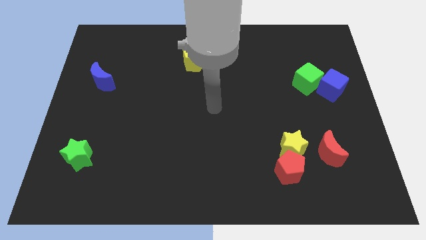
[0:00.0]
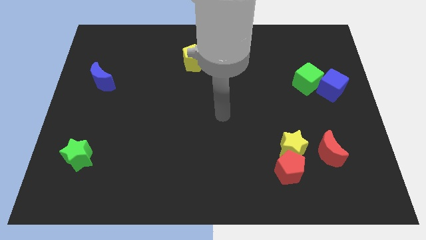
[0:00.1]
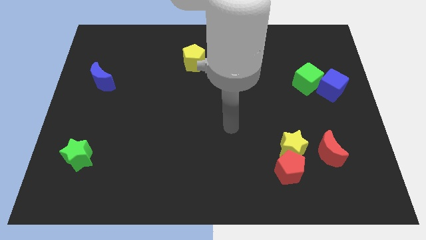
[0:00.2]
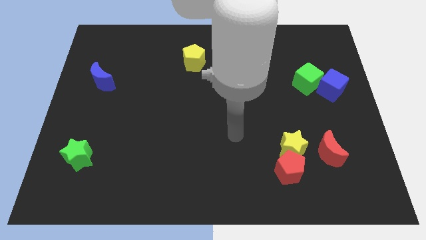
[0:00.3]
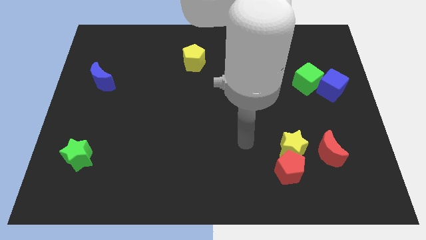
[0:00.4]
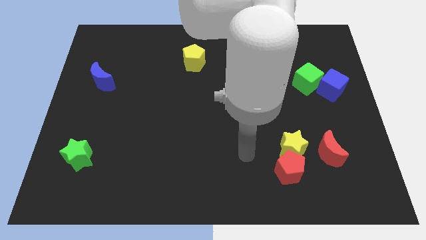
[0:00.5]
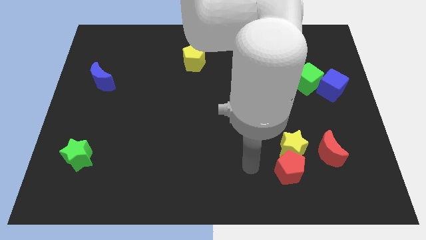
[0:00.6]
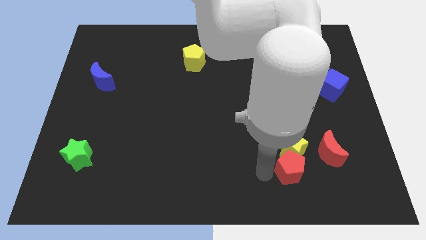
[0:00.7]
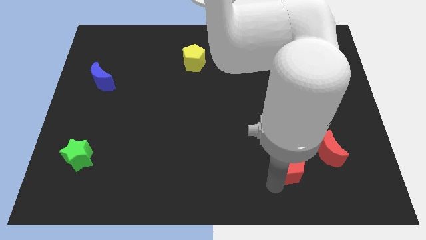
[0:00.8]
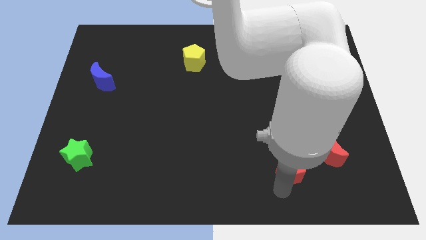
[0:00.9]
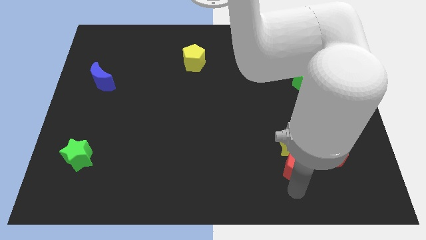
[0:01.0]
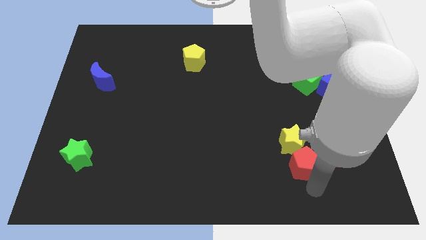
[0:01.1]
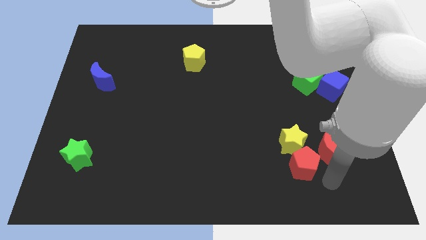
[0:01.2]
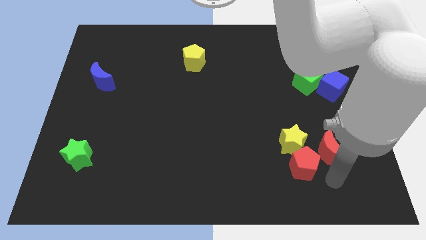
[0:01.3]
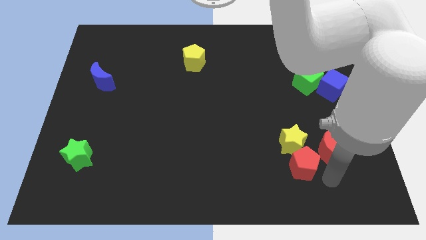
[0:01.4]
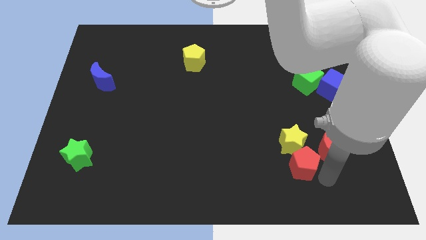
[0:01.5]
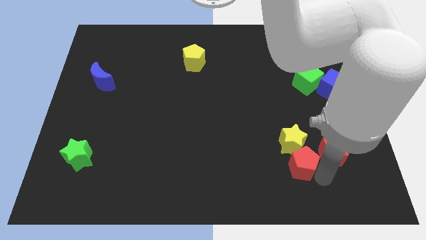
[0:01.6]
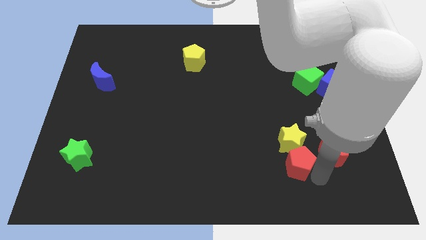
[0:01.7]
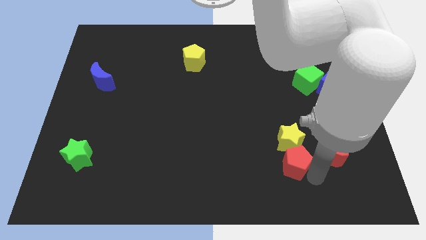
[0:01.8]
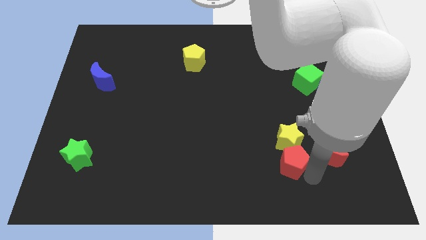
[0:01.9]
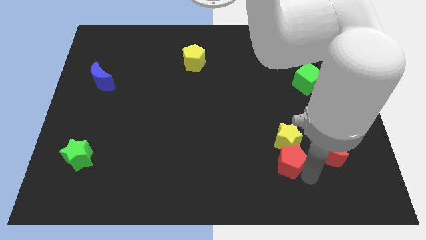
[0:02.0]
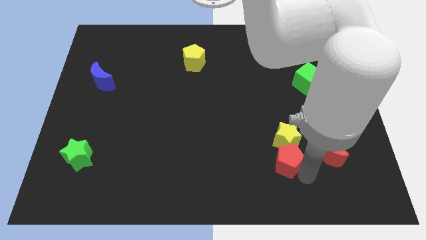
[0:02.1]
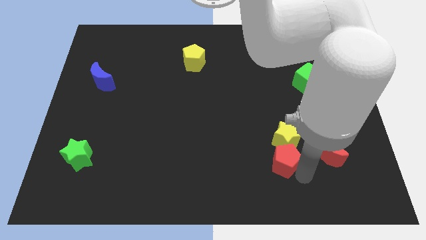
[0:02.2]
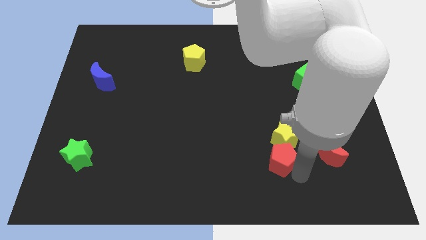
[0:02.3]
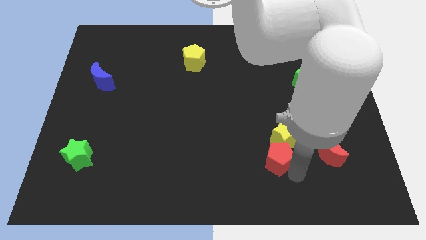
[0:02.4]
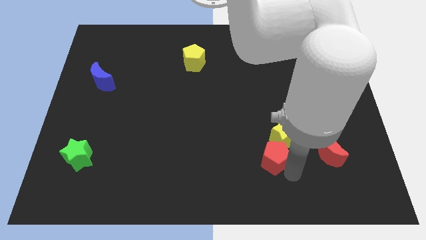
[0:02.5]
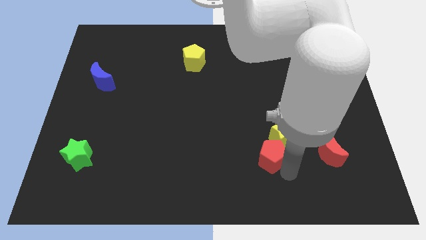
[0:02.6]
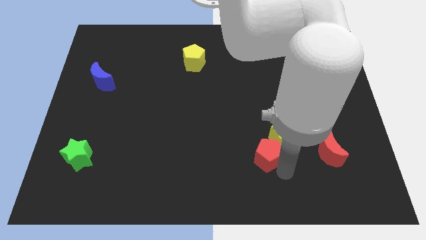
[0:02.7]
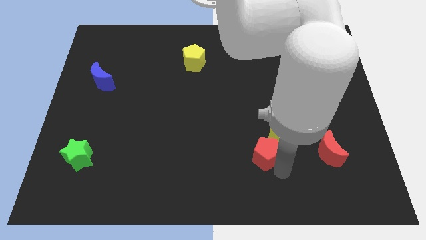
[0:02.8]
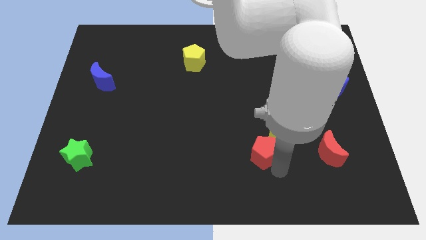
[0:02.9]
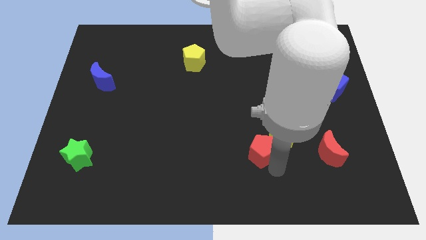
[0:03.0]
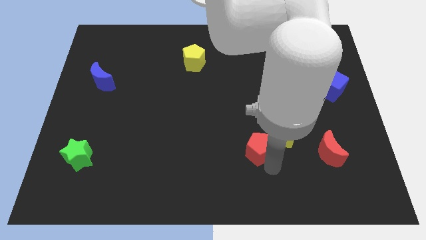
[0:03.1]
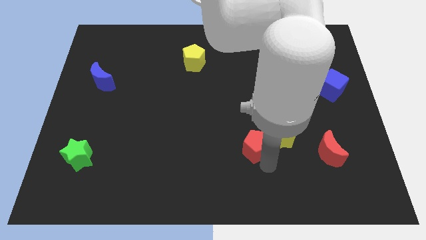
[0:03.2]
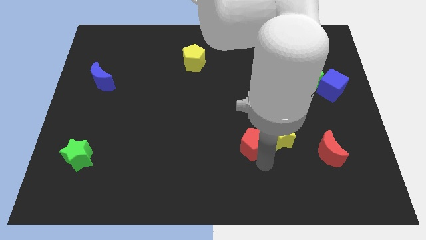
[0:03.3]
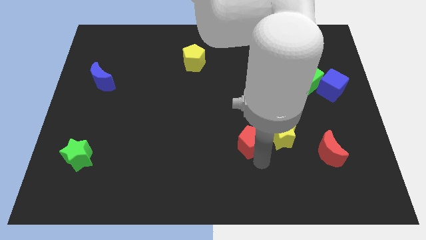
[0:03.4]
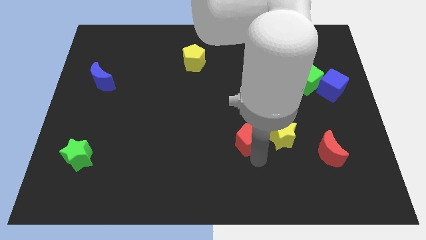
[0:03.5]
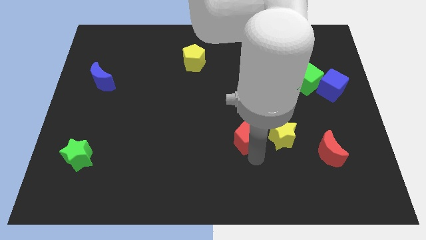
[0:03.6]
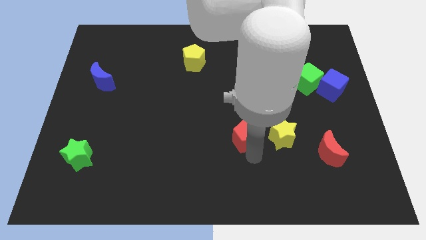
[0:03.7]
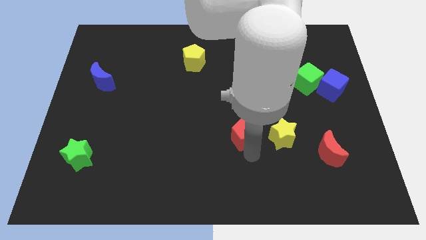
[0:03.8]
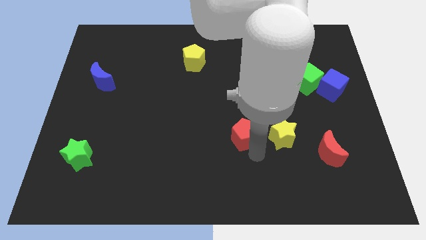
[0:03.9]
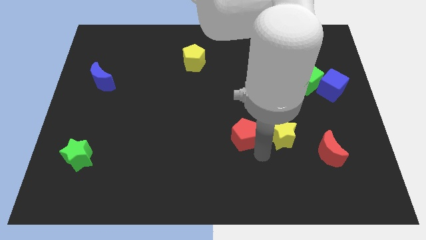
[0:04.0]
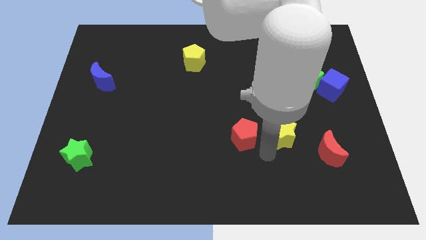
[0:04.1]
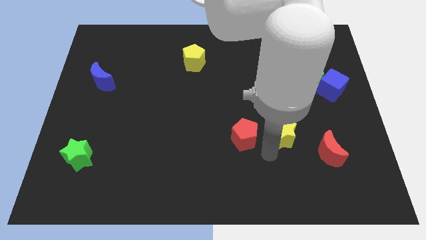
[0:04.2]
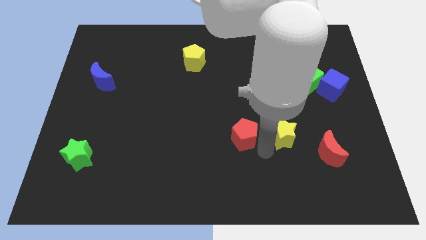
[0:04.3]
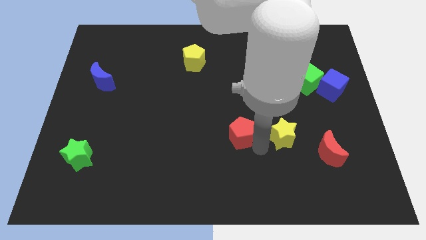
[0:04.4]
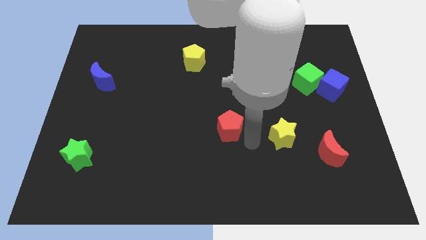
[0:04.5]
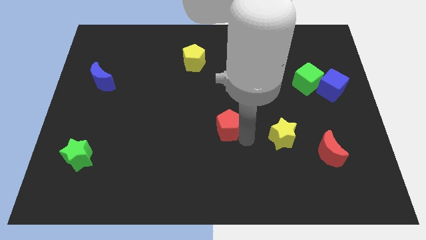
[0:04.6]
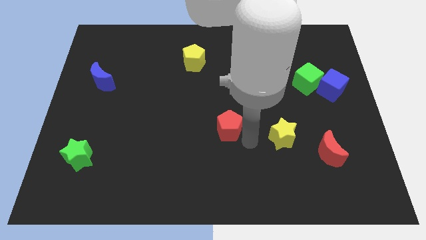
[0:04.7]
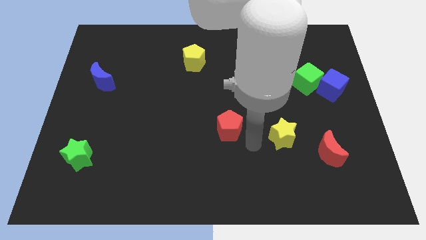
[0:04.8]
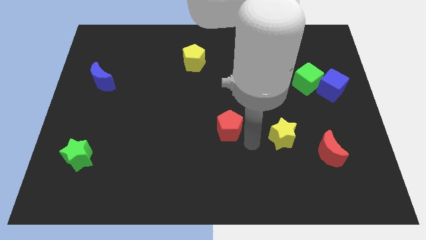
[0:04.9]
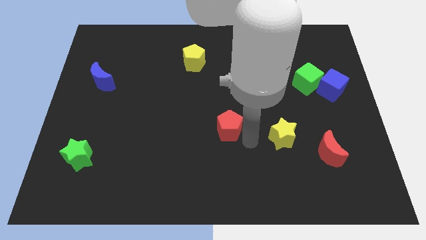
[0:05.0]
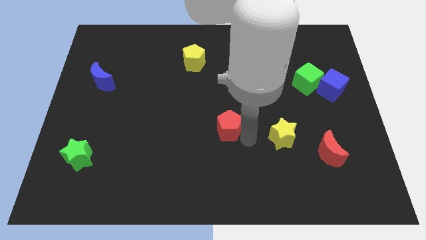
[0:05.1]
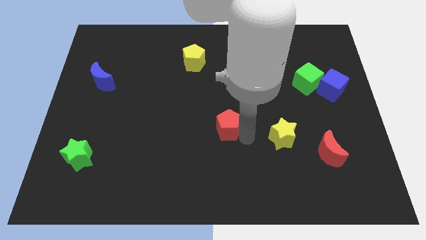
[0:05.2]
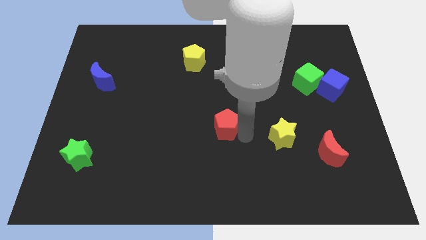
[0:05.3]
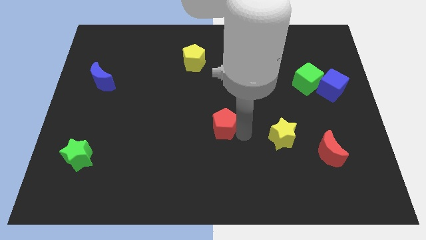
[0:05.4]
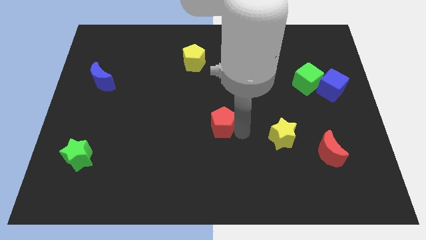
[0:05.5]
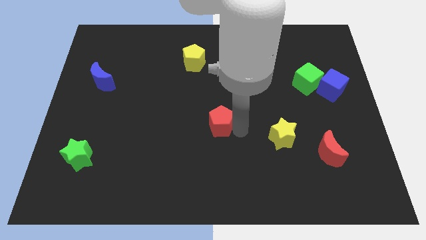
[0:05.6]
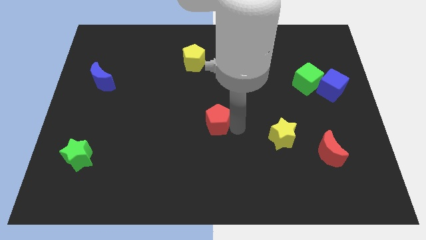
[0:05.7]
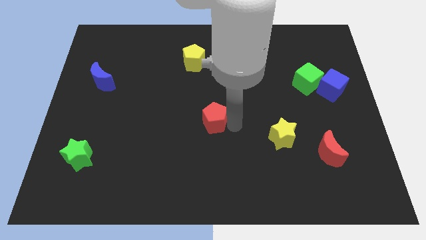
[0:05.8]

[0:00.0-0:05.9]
push the red pentagon diagonally up and left

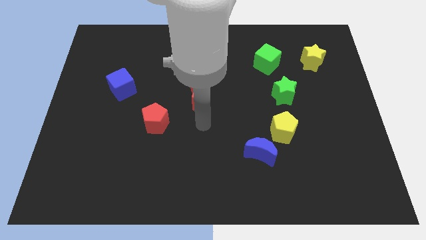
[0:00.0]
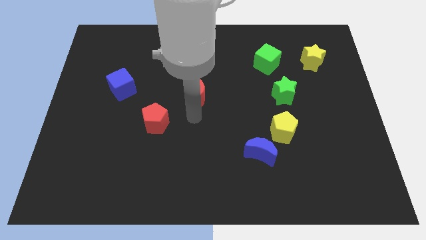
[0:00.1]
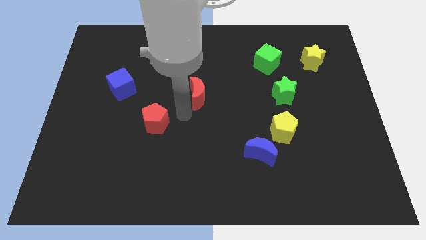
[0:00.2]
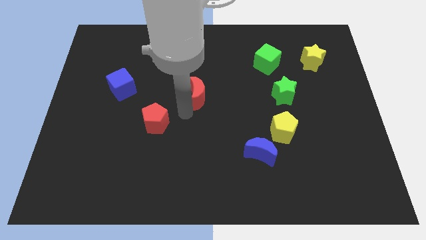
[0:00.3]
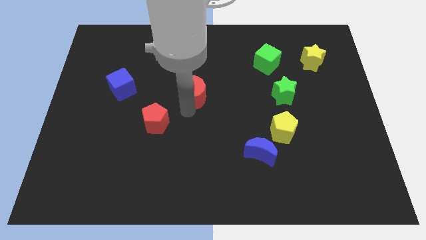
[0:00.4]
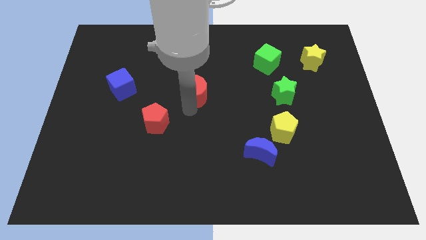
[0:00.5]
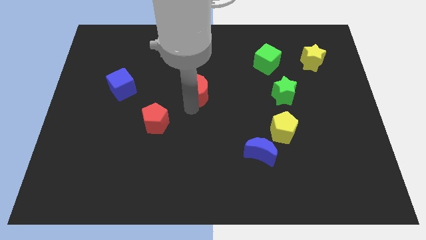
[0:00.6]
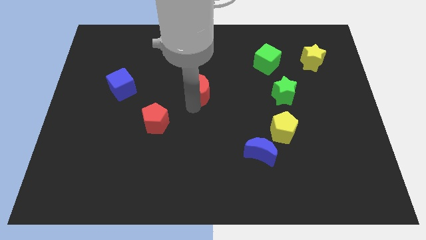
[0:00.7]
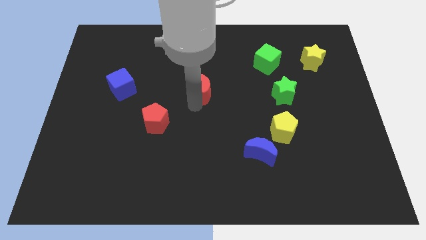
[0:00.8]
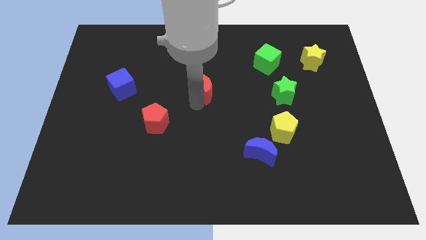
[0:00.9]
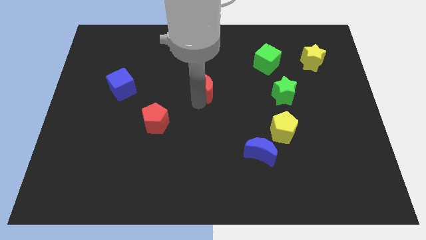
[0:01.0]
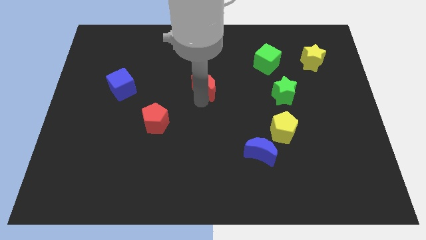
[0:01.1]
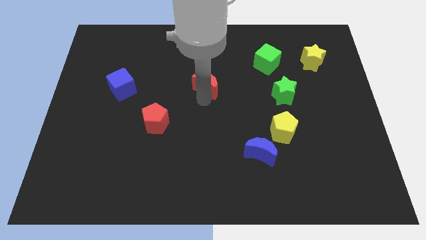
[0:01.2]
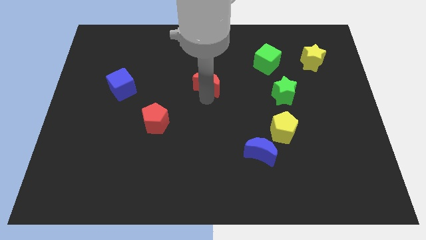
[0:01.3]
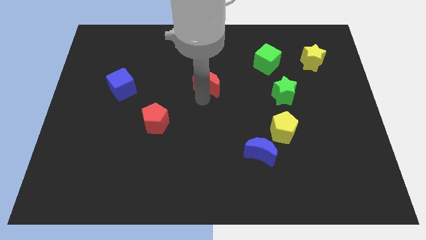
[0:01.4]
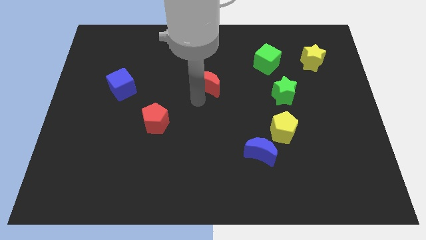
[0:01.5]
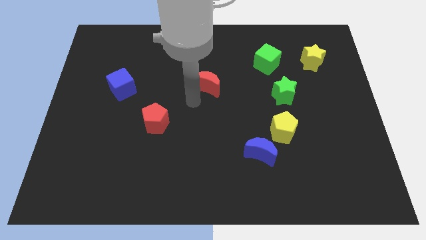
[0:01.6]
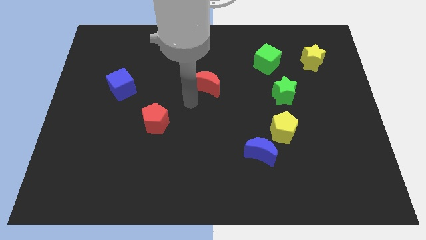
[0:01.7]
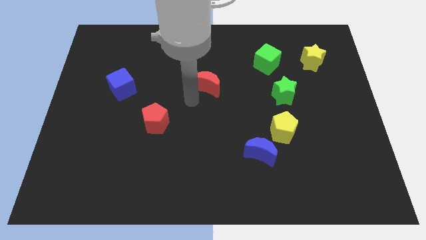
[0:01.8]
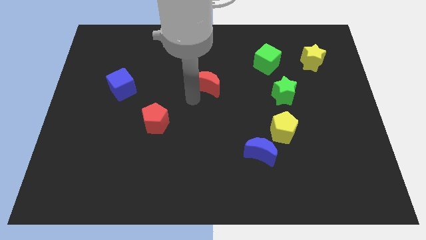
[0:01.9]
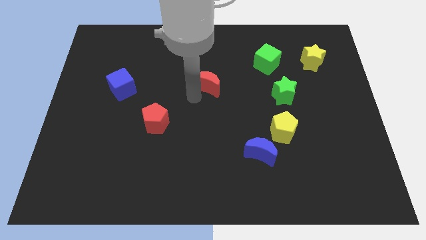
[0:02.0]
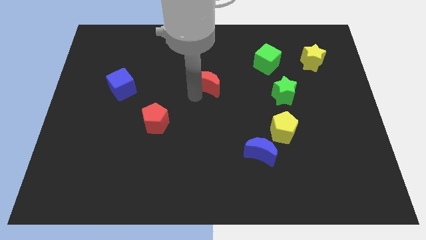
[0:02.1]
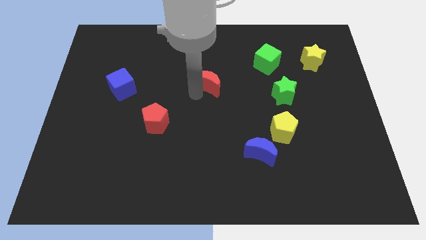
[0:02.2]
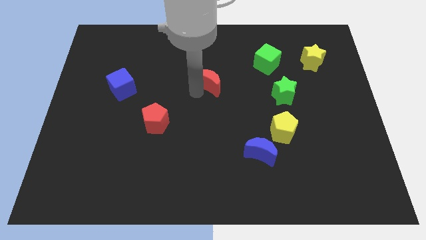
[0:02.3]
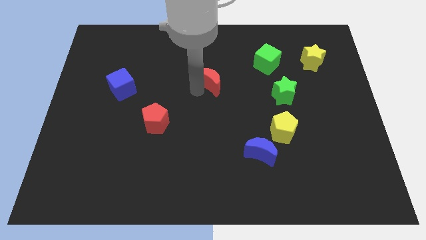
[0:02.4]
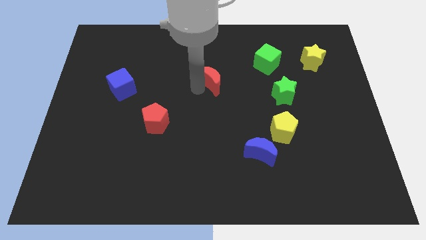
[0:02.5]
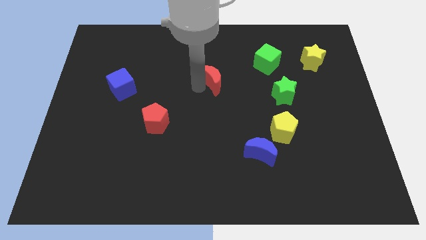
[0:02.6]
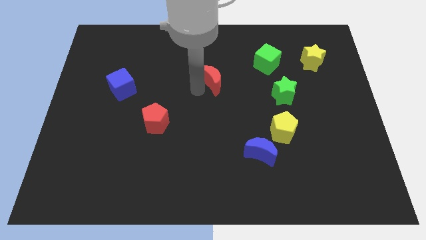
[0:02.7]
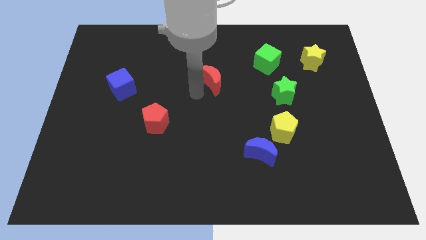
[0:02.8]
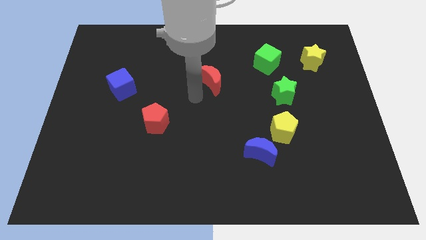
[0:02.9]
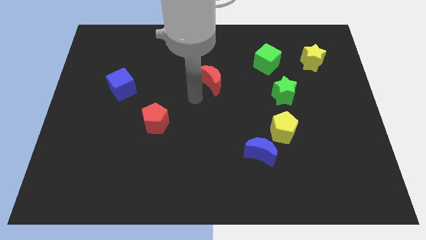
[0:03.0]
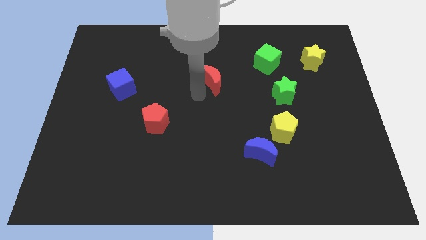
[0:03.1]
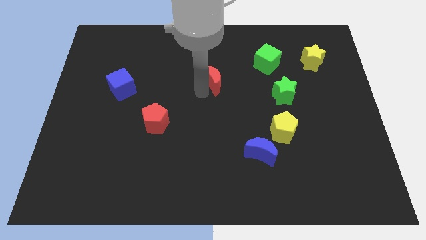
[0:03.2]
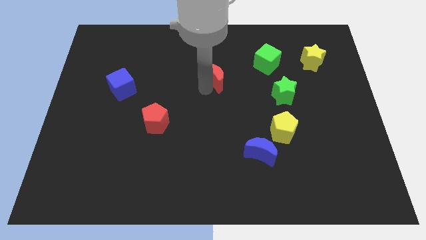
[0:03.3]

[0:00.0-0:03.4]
move the red moon a little upwards and to the right diagonally
